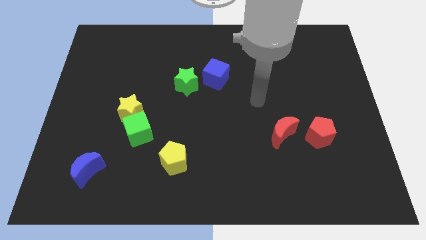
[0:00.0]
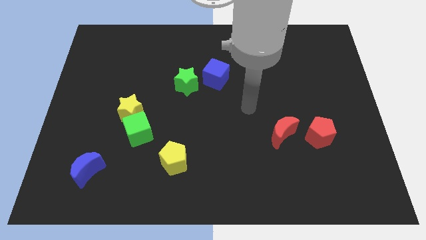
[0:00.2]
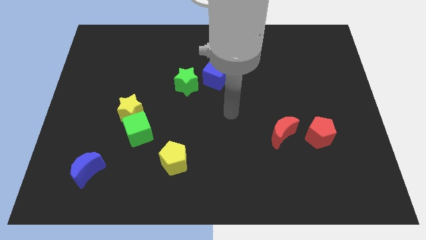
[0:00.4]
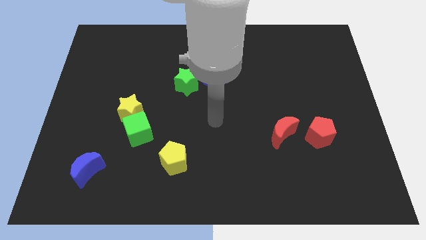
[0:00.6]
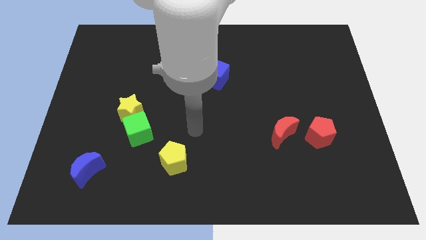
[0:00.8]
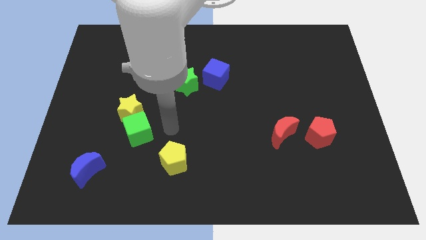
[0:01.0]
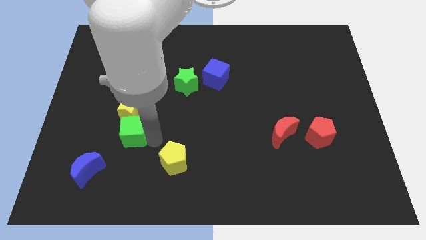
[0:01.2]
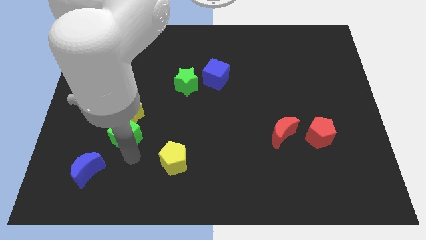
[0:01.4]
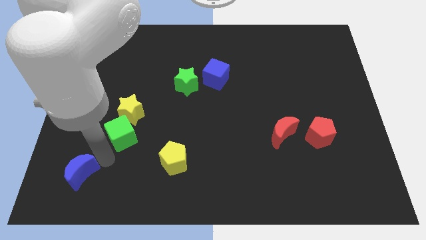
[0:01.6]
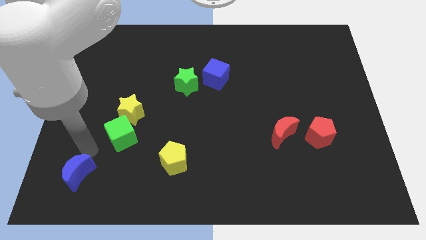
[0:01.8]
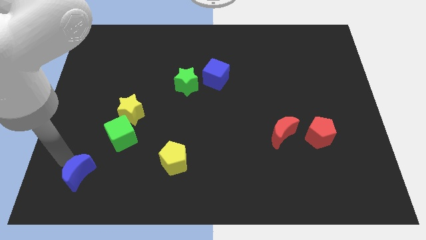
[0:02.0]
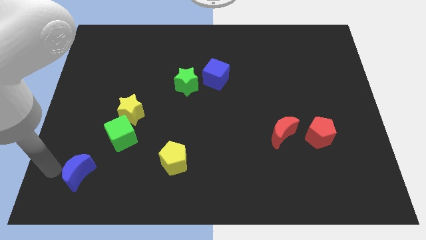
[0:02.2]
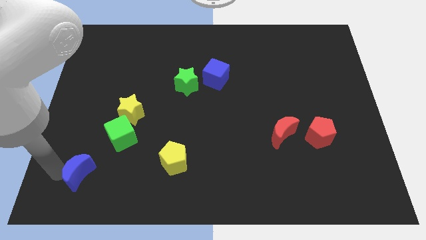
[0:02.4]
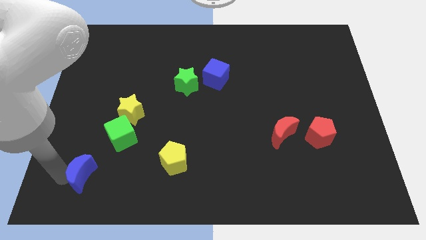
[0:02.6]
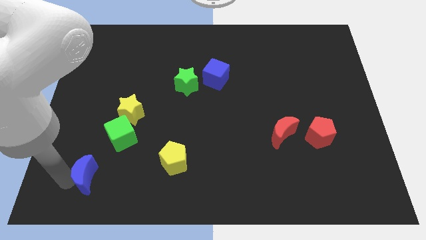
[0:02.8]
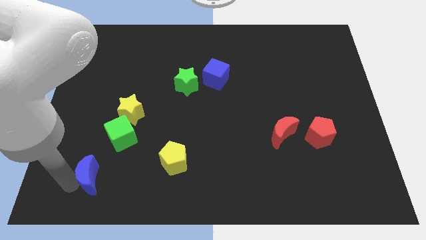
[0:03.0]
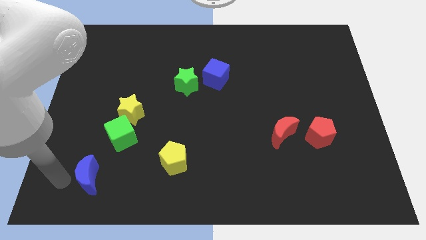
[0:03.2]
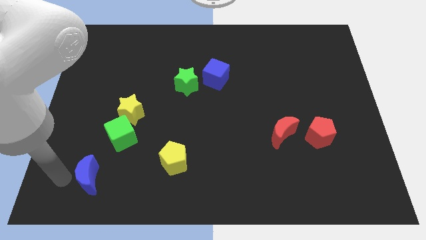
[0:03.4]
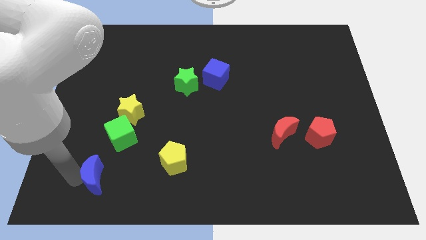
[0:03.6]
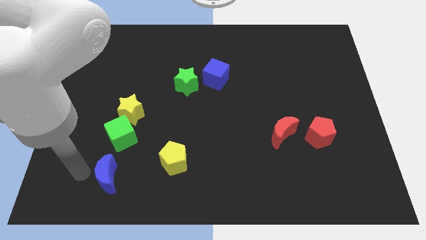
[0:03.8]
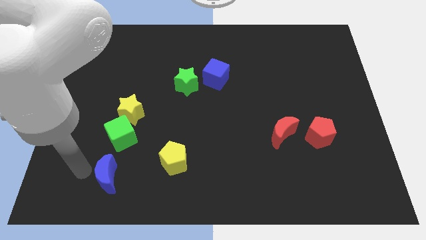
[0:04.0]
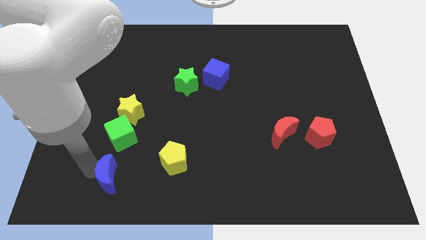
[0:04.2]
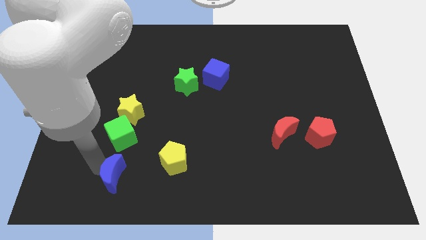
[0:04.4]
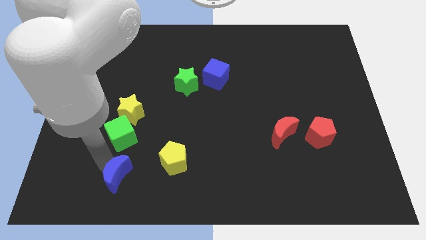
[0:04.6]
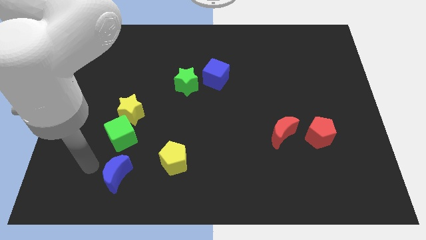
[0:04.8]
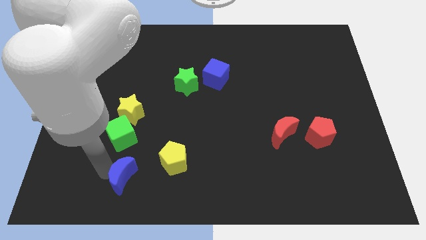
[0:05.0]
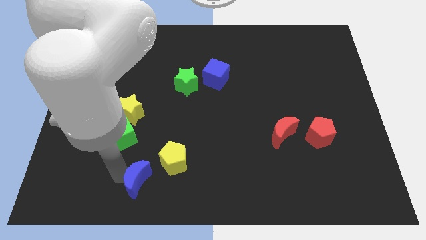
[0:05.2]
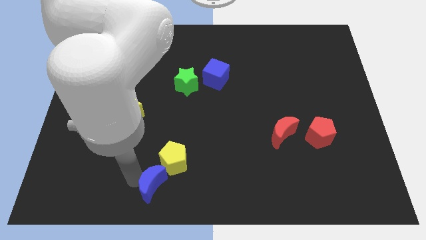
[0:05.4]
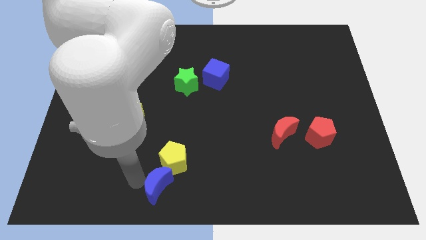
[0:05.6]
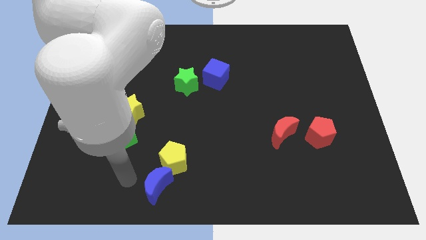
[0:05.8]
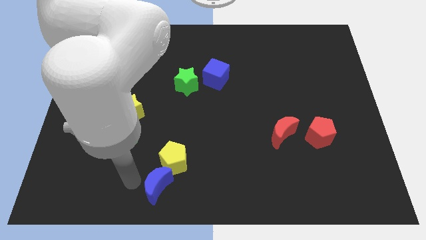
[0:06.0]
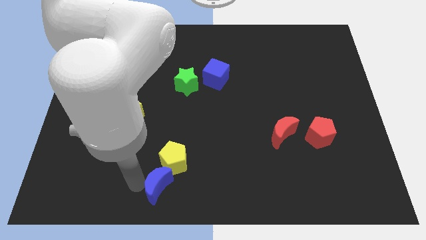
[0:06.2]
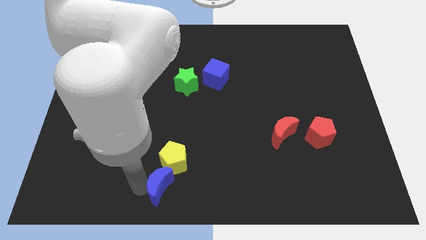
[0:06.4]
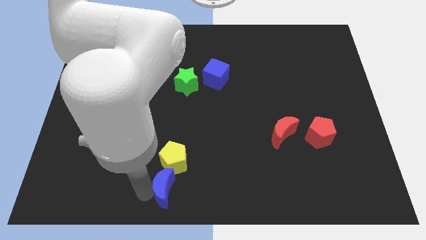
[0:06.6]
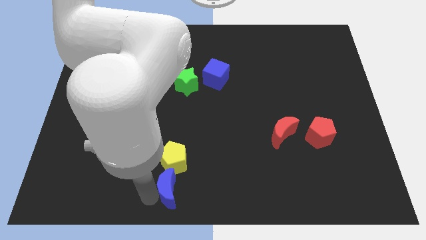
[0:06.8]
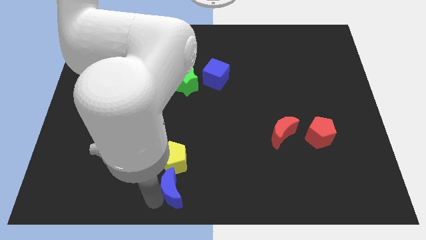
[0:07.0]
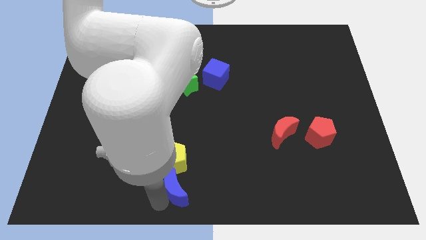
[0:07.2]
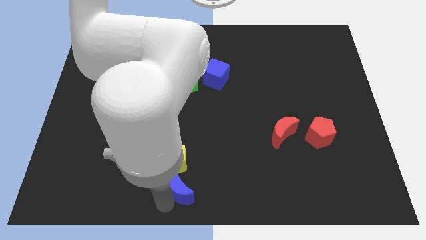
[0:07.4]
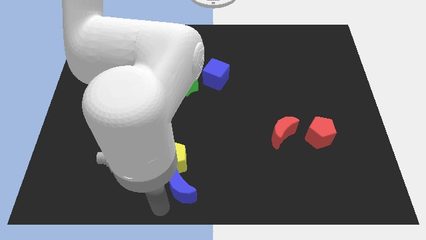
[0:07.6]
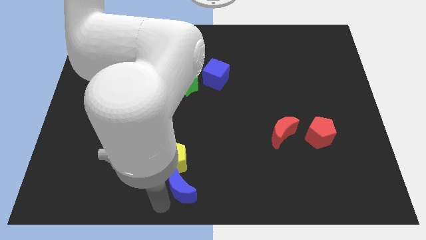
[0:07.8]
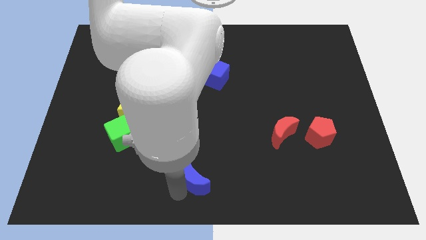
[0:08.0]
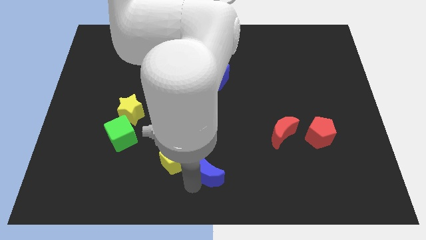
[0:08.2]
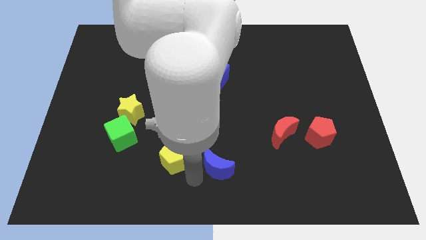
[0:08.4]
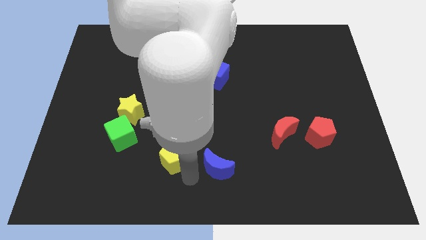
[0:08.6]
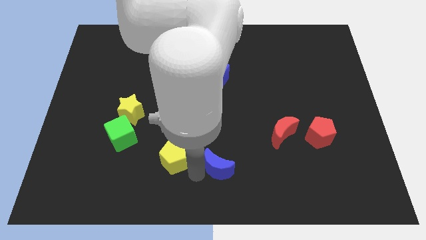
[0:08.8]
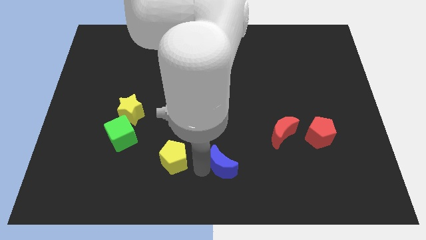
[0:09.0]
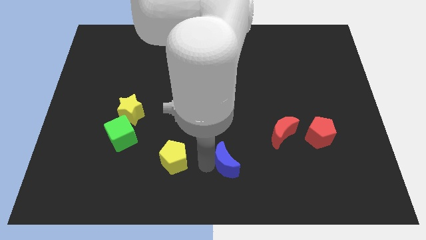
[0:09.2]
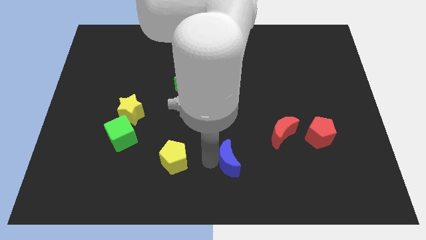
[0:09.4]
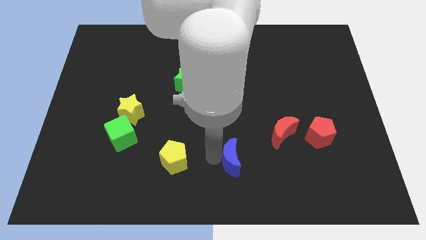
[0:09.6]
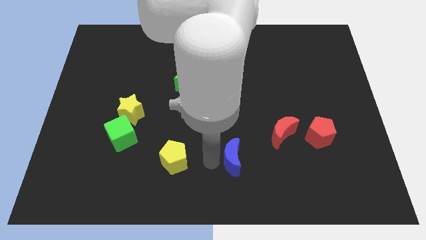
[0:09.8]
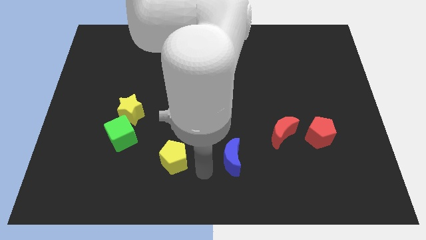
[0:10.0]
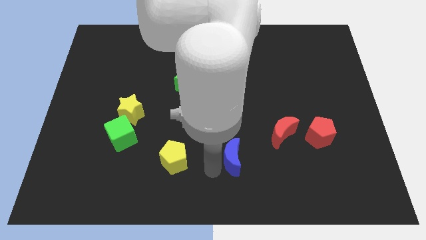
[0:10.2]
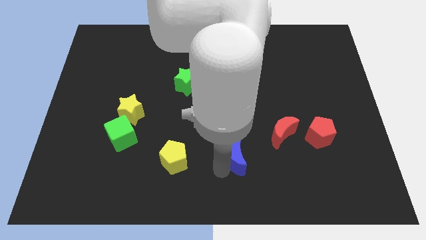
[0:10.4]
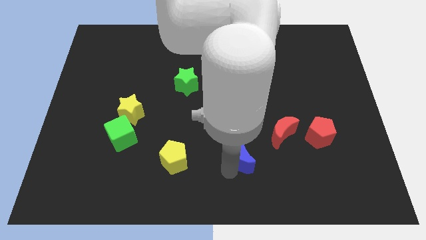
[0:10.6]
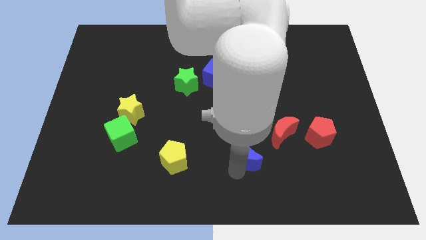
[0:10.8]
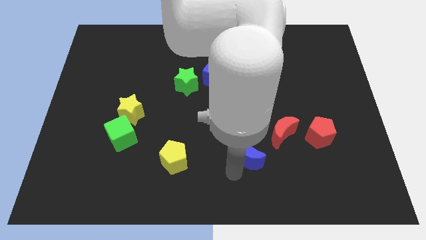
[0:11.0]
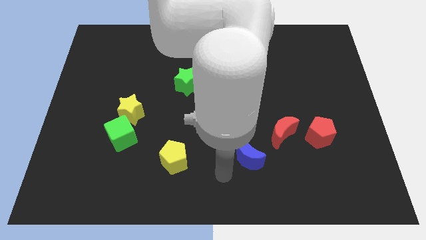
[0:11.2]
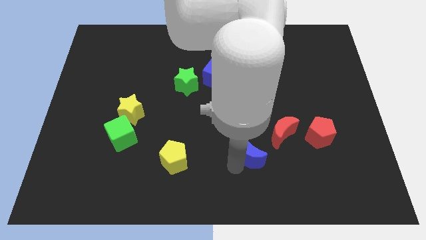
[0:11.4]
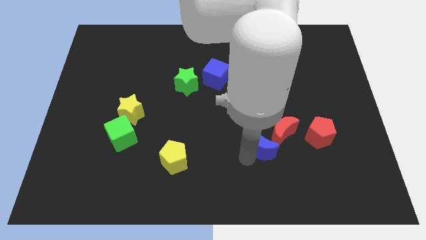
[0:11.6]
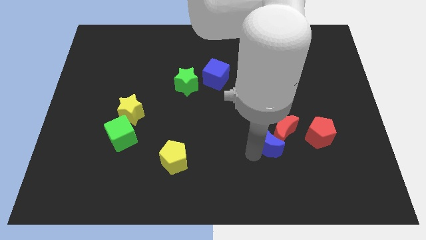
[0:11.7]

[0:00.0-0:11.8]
put the blue moon towards the red moon

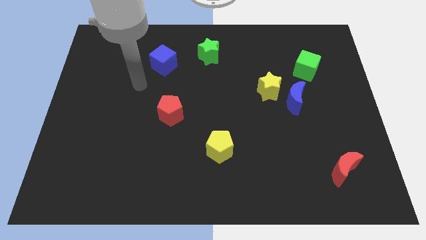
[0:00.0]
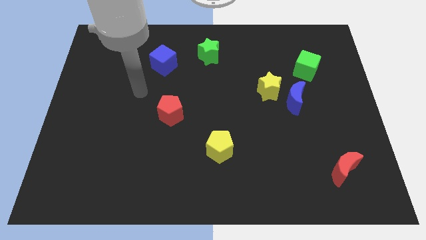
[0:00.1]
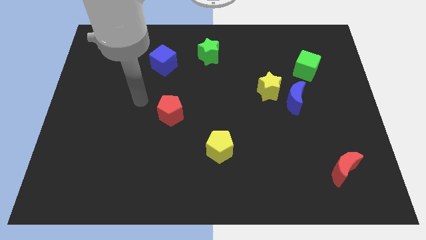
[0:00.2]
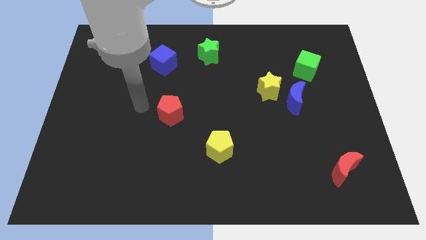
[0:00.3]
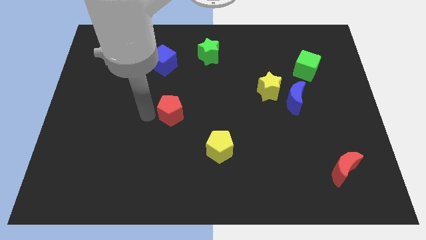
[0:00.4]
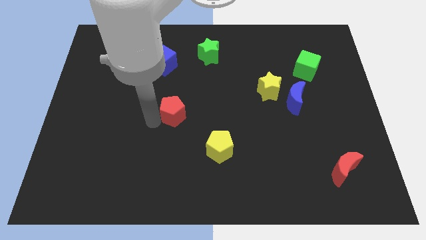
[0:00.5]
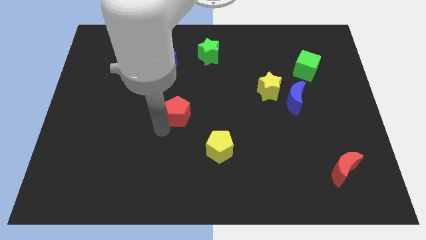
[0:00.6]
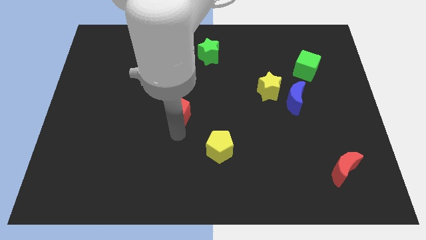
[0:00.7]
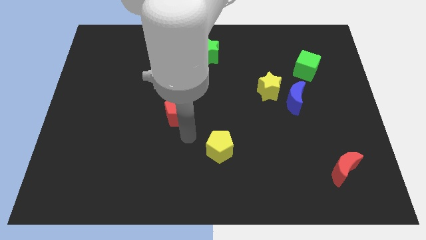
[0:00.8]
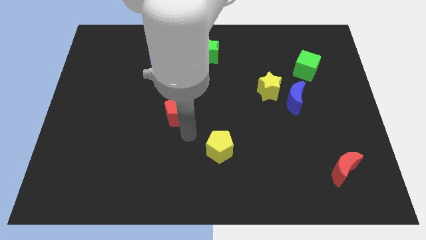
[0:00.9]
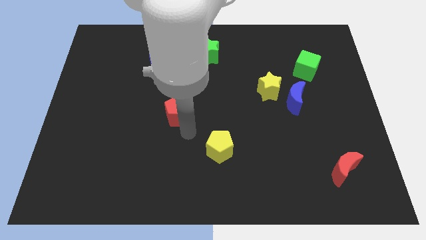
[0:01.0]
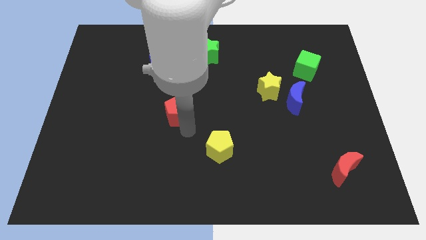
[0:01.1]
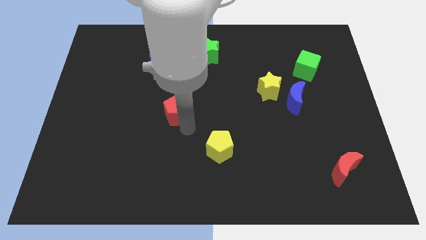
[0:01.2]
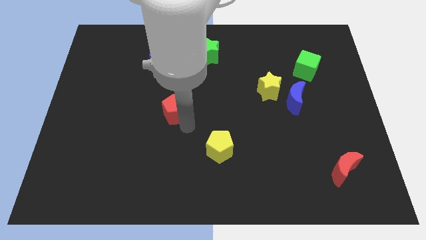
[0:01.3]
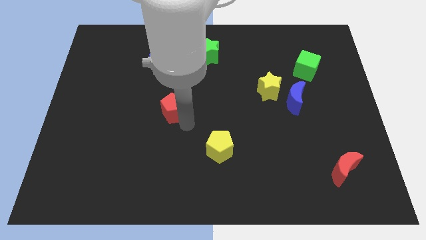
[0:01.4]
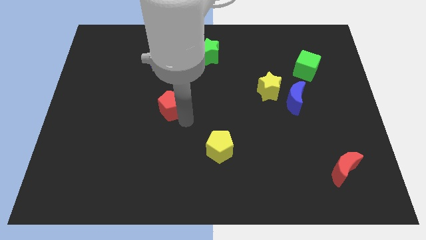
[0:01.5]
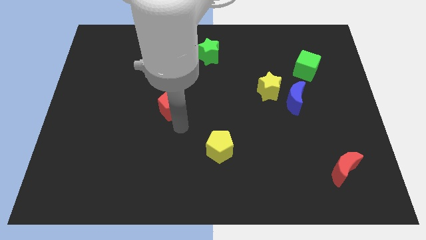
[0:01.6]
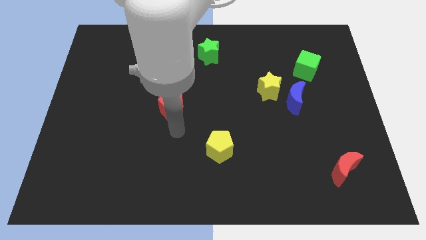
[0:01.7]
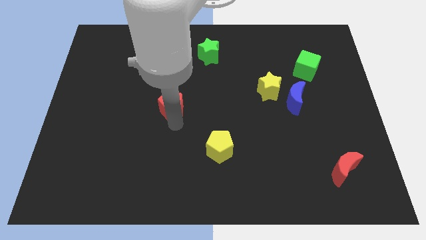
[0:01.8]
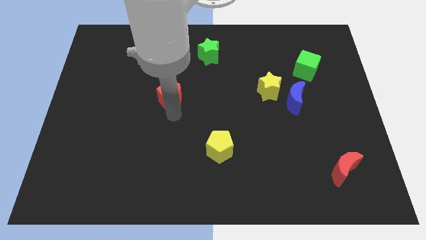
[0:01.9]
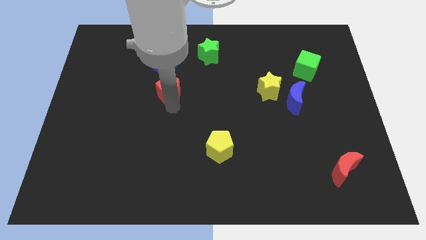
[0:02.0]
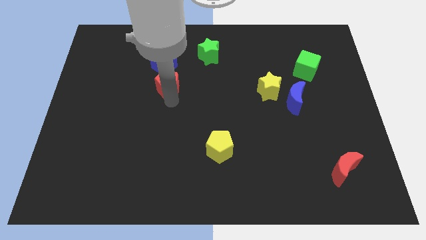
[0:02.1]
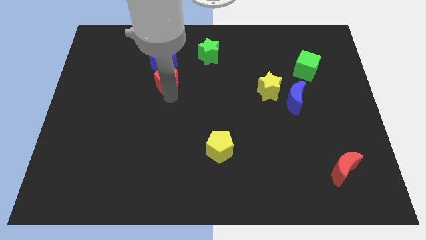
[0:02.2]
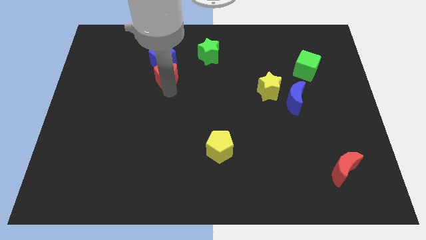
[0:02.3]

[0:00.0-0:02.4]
push the red pentagon next to the blue cube
